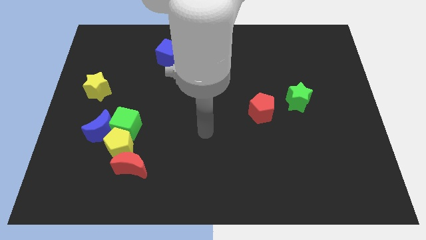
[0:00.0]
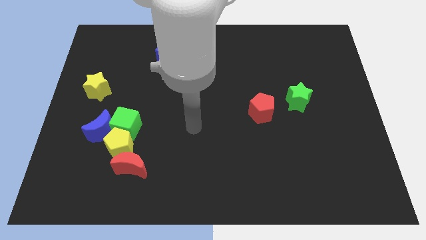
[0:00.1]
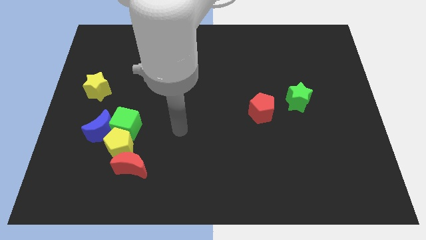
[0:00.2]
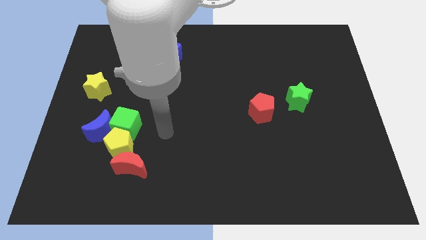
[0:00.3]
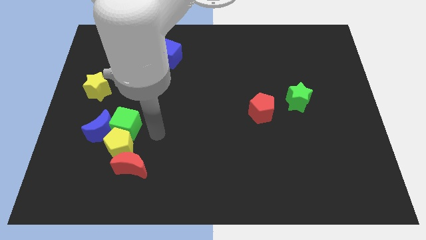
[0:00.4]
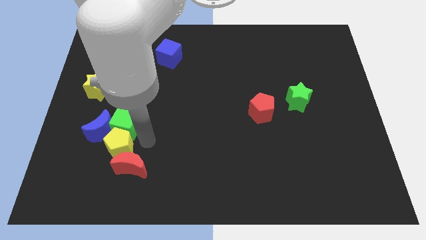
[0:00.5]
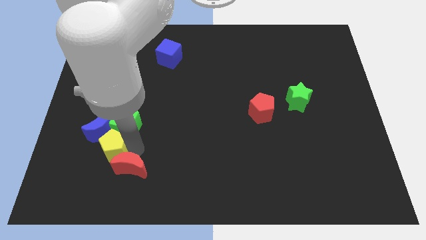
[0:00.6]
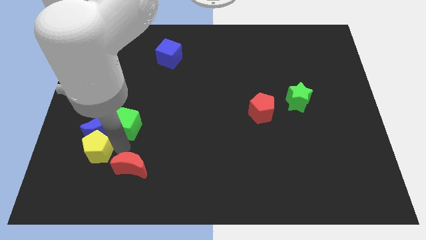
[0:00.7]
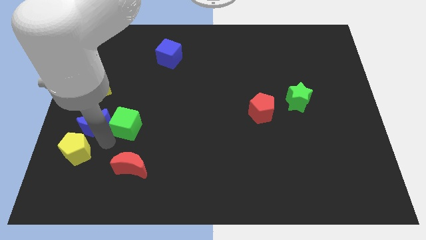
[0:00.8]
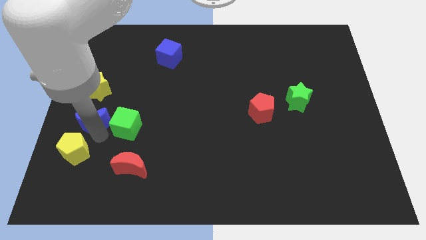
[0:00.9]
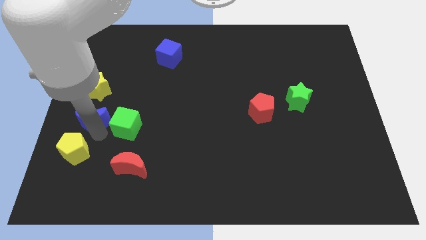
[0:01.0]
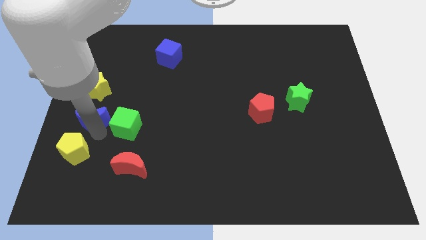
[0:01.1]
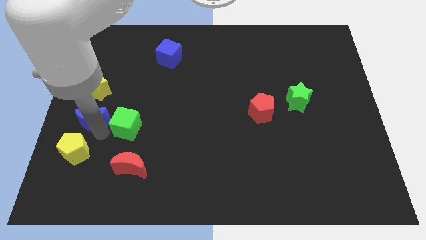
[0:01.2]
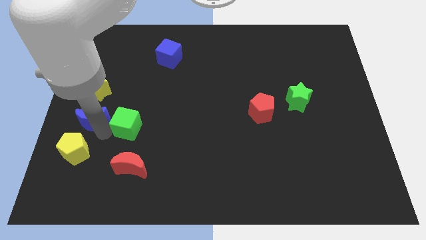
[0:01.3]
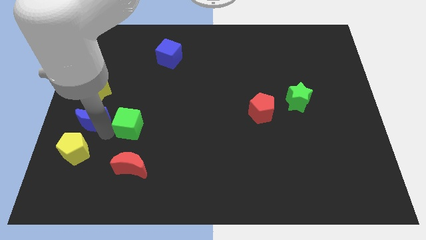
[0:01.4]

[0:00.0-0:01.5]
pull the green cube apart from the blue moon and yellow pentagon

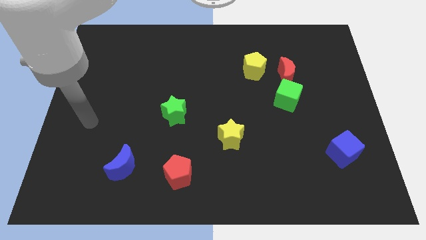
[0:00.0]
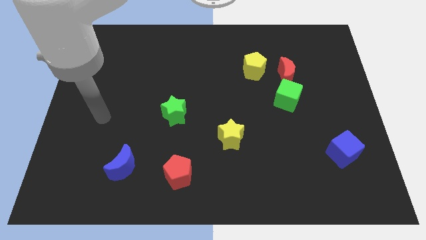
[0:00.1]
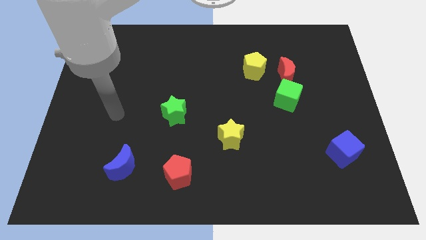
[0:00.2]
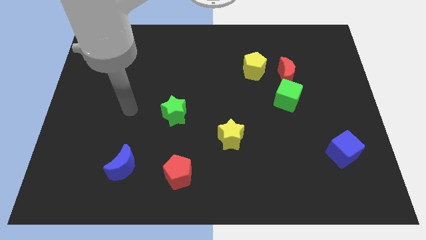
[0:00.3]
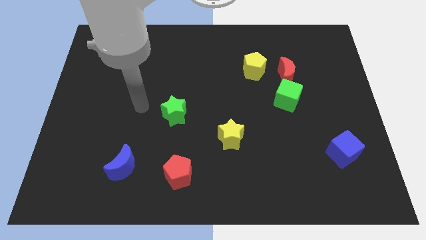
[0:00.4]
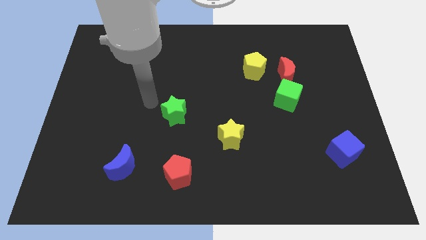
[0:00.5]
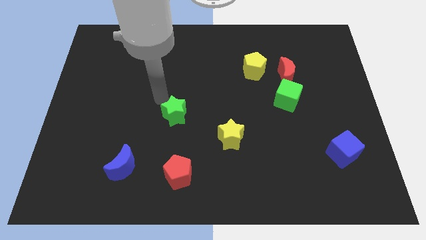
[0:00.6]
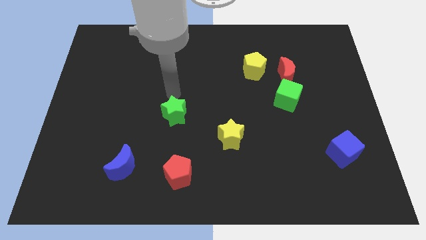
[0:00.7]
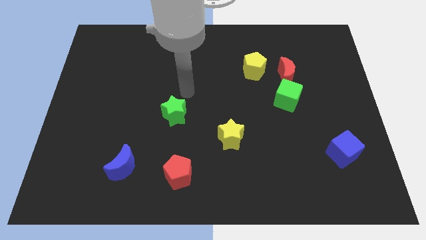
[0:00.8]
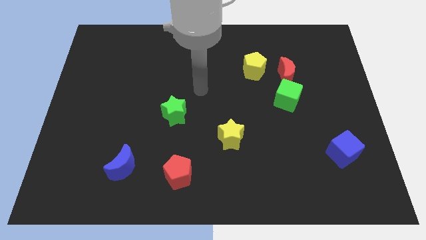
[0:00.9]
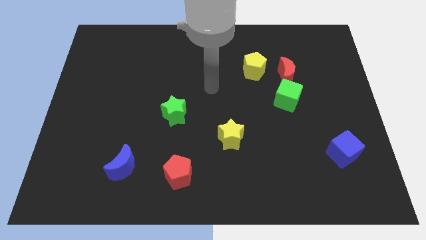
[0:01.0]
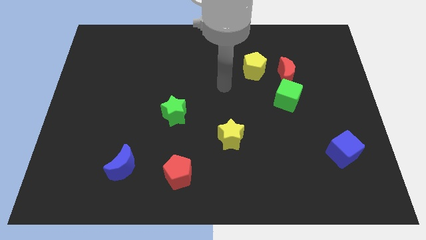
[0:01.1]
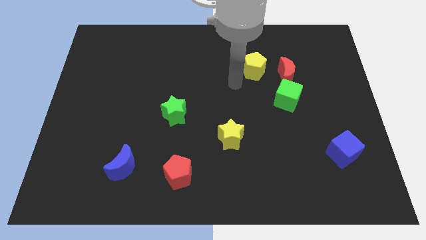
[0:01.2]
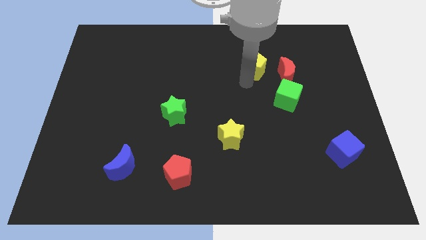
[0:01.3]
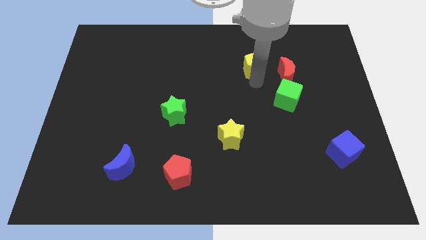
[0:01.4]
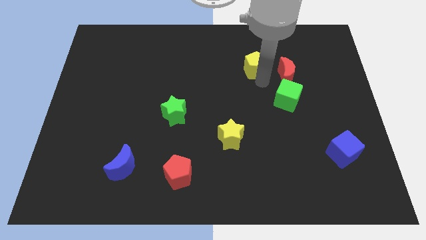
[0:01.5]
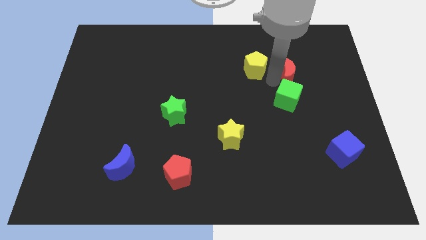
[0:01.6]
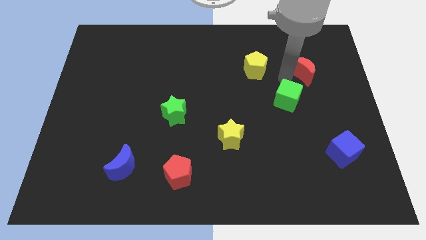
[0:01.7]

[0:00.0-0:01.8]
separate the green cube from the red moon

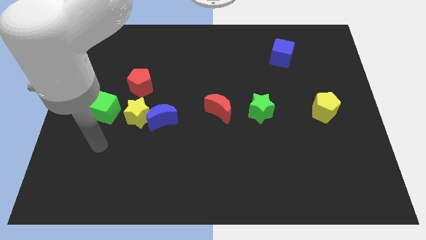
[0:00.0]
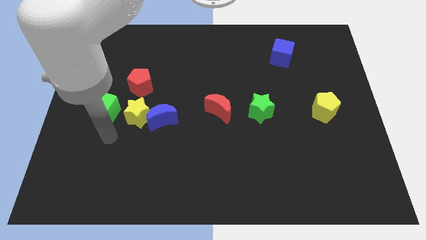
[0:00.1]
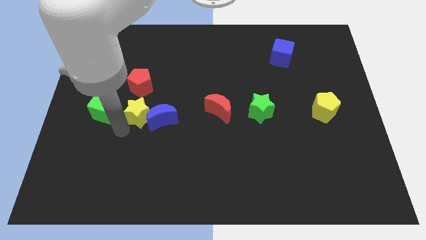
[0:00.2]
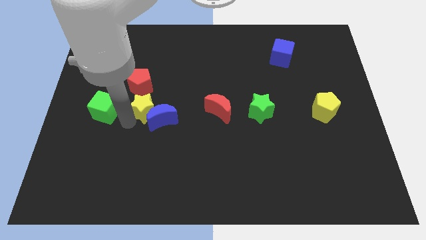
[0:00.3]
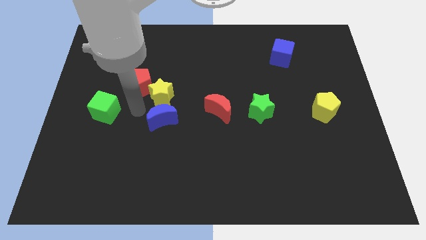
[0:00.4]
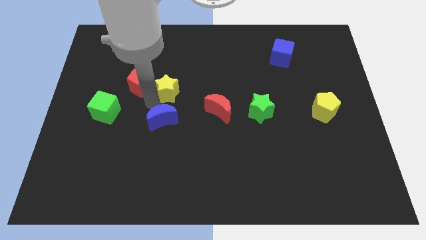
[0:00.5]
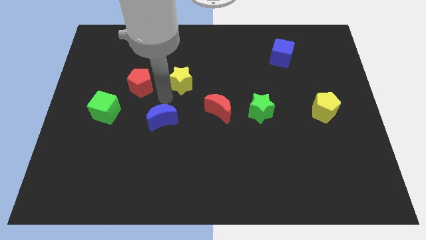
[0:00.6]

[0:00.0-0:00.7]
pull the blue moon apart from the yellow star

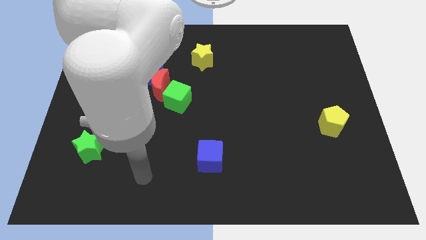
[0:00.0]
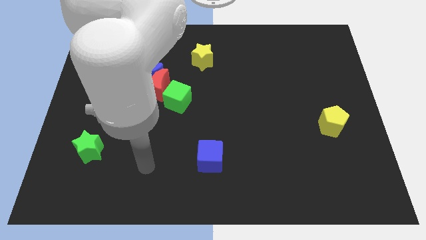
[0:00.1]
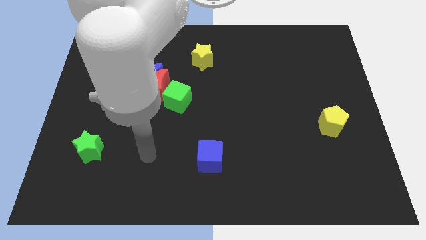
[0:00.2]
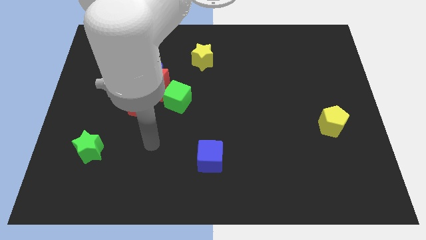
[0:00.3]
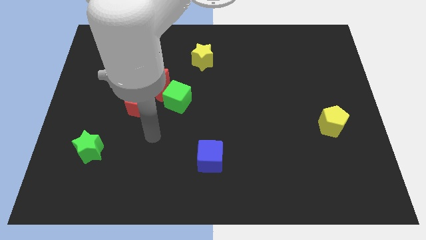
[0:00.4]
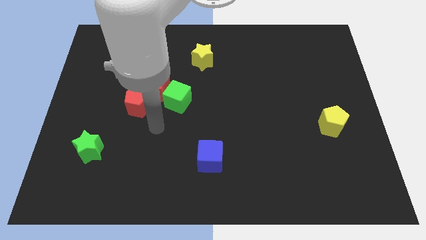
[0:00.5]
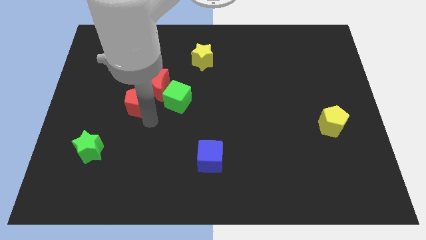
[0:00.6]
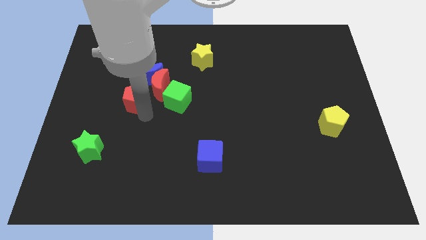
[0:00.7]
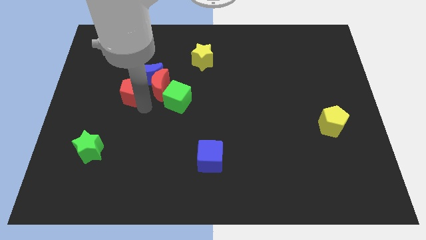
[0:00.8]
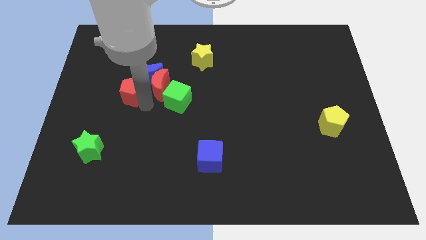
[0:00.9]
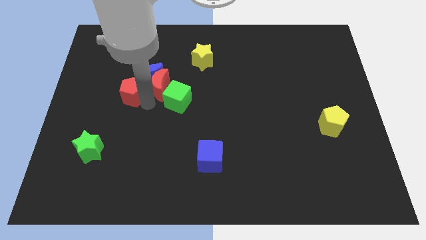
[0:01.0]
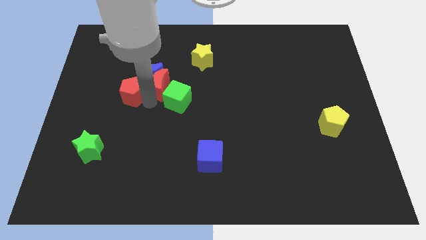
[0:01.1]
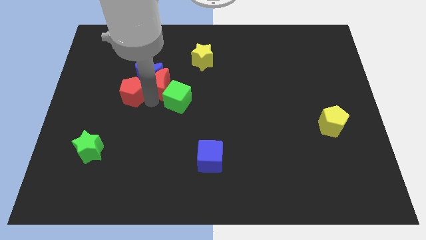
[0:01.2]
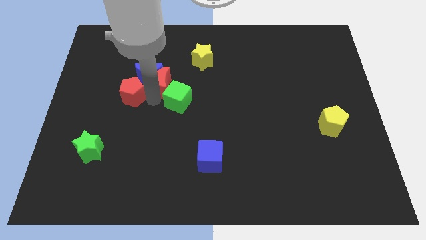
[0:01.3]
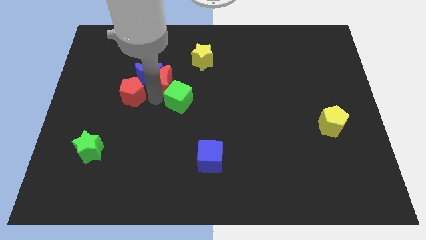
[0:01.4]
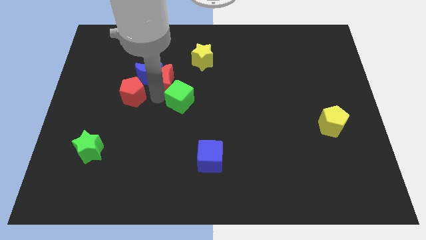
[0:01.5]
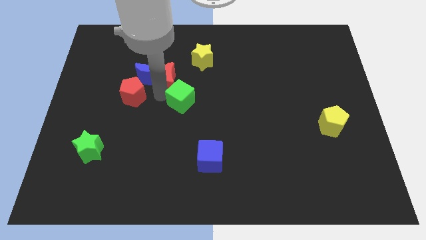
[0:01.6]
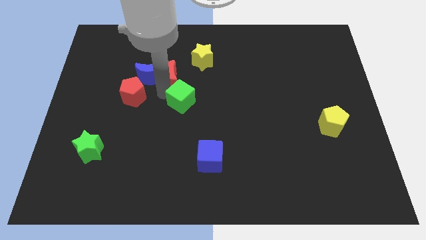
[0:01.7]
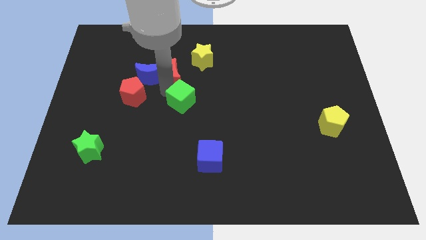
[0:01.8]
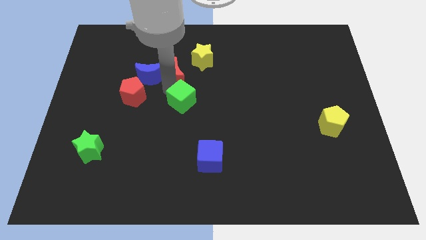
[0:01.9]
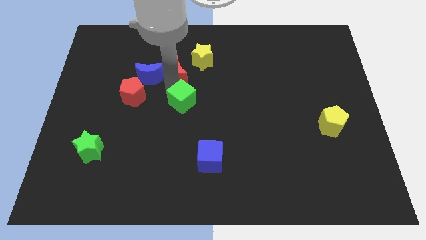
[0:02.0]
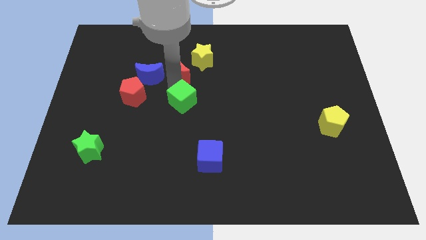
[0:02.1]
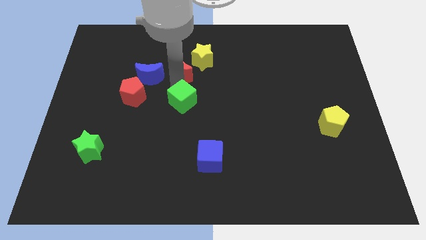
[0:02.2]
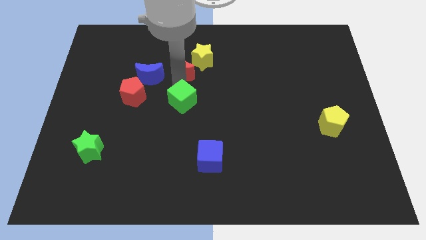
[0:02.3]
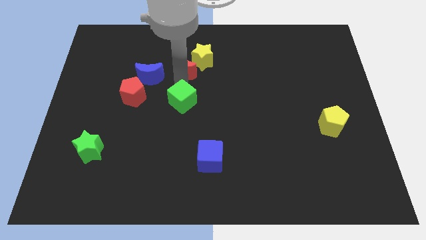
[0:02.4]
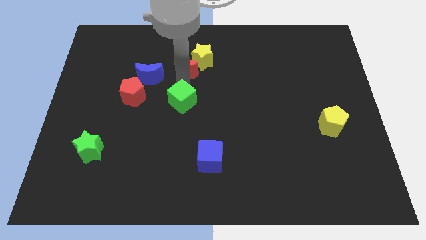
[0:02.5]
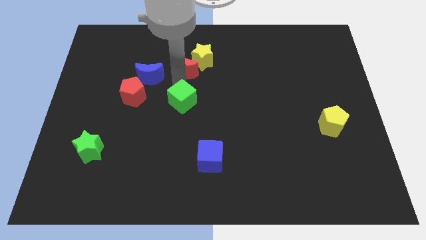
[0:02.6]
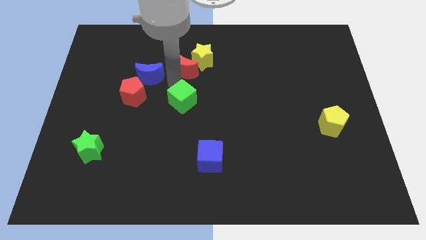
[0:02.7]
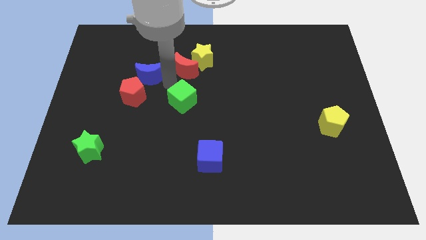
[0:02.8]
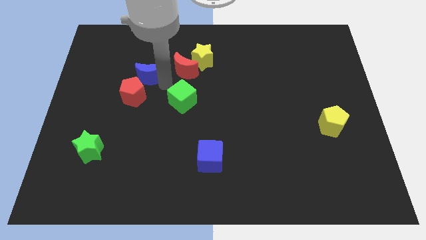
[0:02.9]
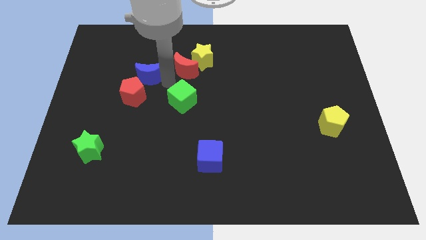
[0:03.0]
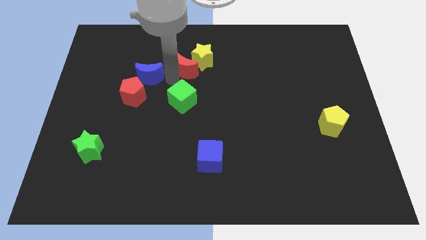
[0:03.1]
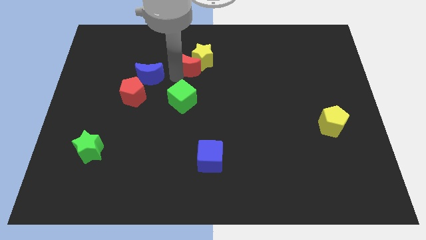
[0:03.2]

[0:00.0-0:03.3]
pull the red moon apart from the blue moon, green cube, and red pentagon

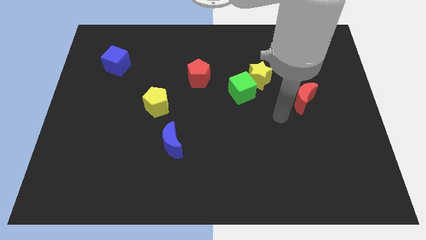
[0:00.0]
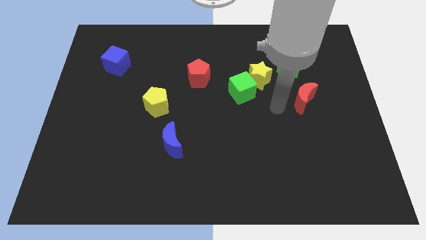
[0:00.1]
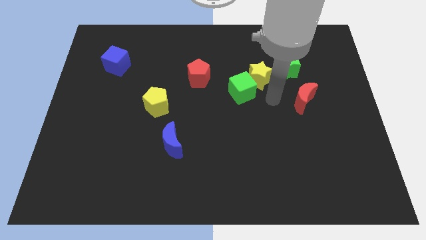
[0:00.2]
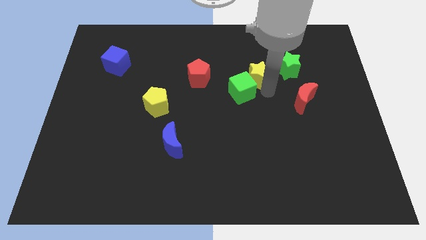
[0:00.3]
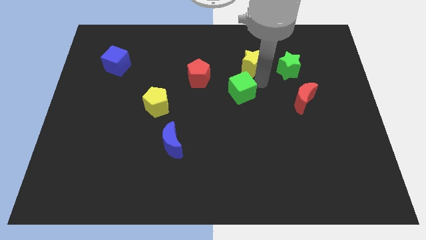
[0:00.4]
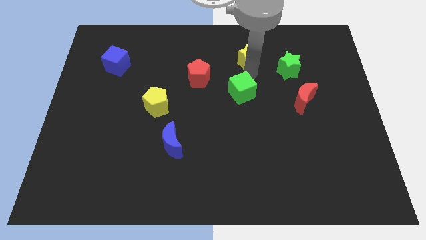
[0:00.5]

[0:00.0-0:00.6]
move the green cube away from the yellow star

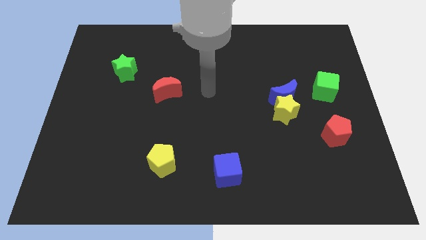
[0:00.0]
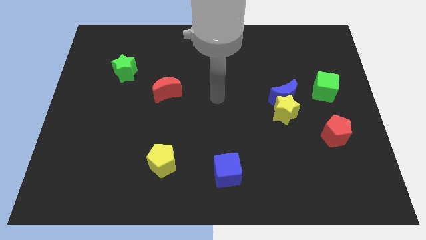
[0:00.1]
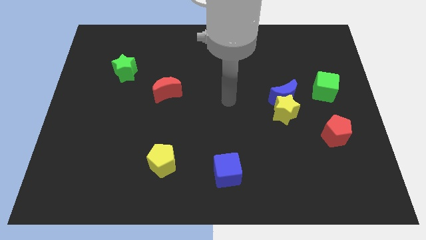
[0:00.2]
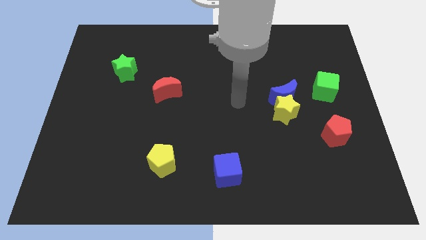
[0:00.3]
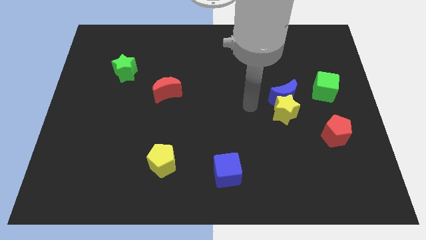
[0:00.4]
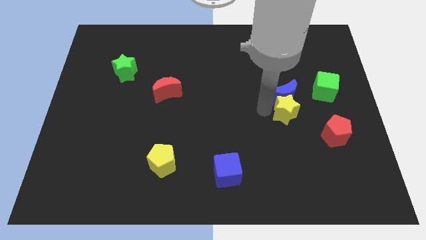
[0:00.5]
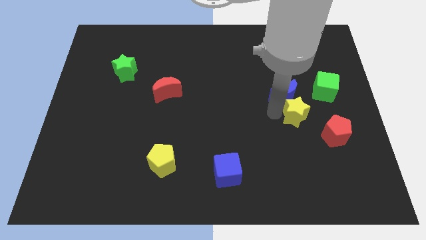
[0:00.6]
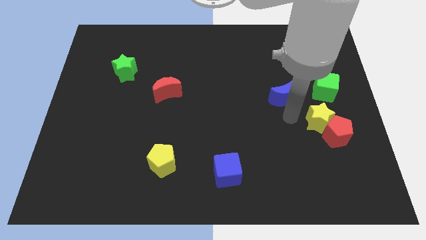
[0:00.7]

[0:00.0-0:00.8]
separate the blue moon from the yellow star

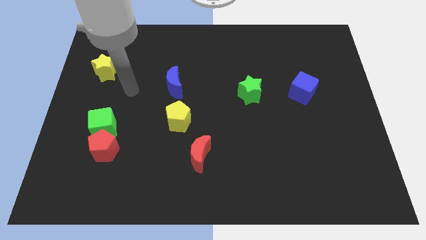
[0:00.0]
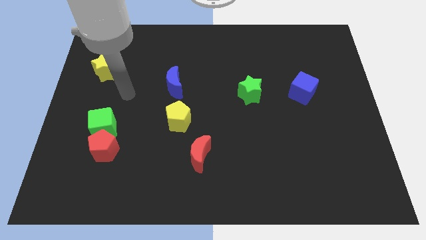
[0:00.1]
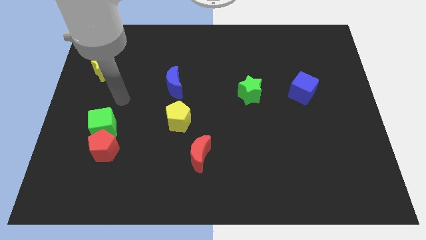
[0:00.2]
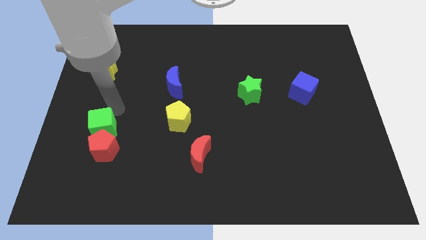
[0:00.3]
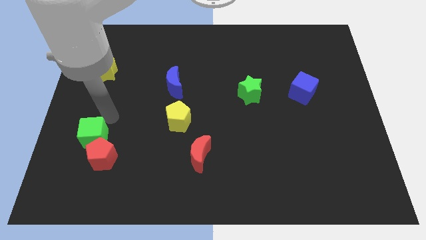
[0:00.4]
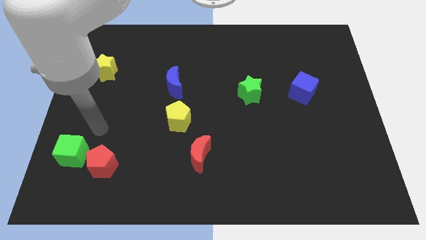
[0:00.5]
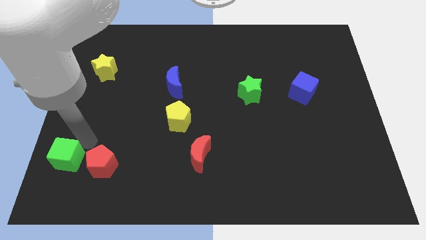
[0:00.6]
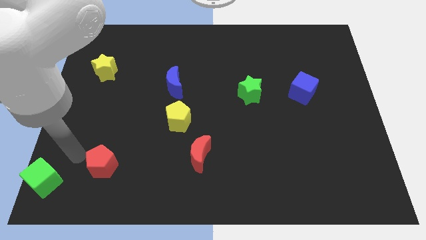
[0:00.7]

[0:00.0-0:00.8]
separate the red pentagon from the green cube
